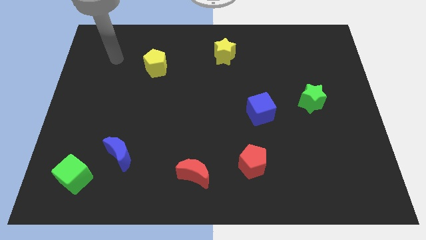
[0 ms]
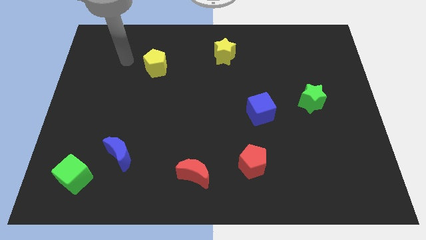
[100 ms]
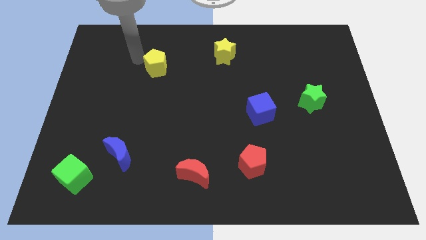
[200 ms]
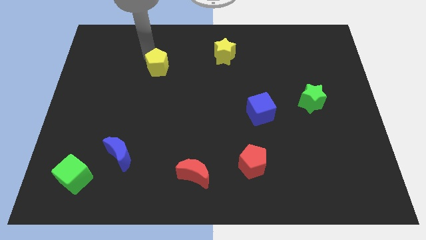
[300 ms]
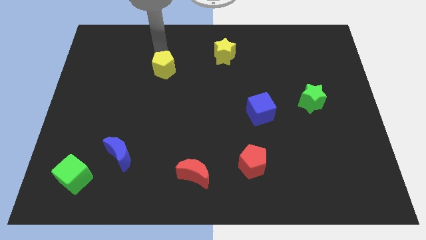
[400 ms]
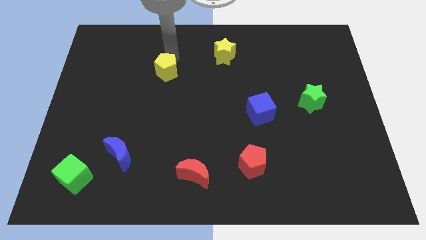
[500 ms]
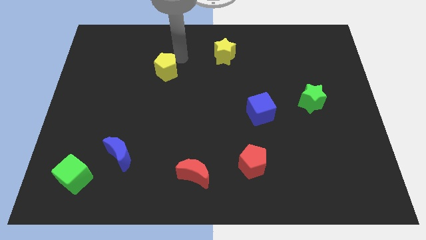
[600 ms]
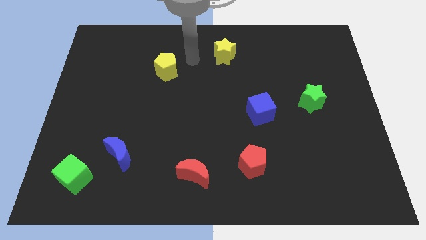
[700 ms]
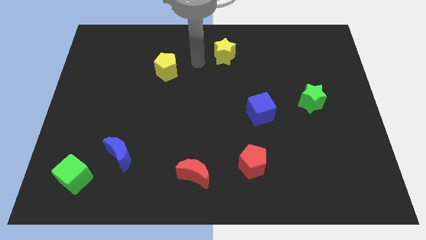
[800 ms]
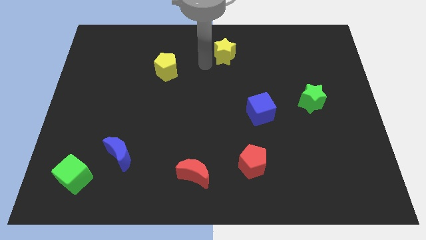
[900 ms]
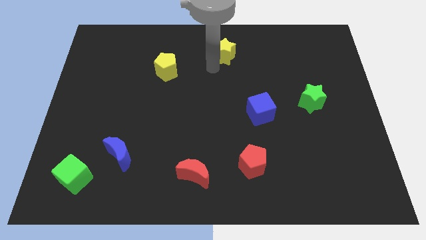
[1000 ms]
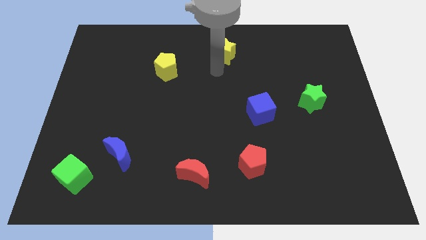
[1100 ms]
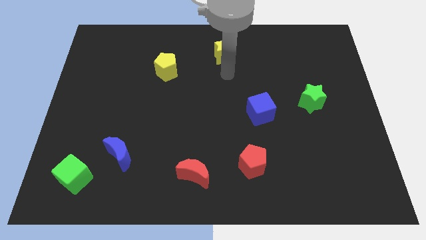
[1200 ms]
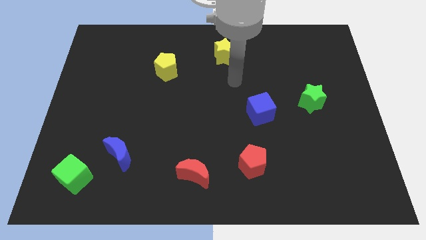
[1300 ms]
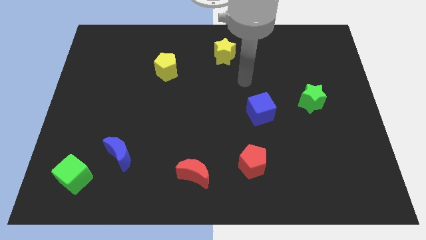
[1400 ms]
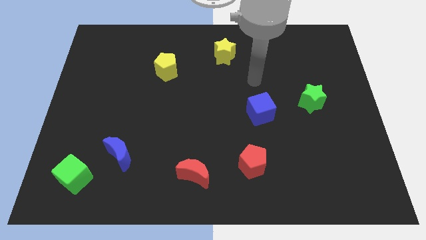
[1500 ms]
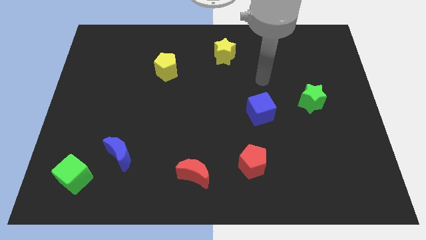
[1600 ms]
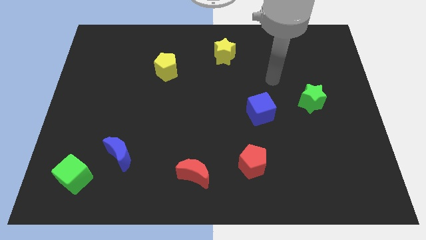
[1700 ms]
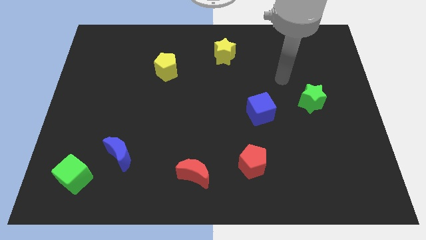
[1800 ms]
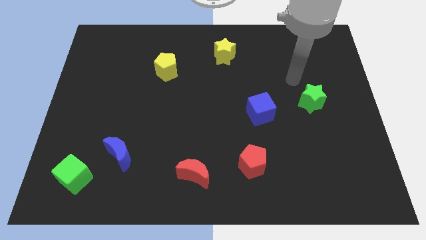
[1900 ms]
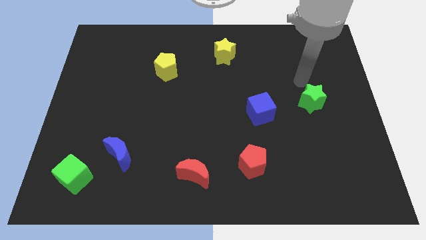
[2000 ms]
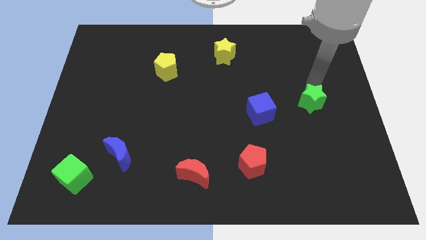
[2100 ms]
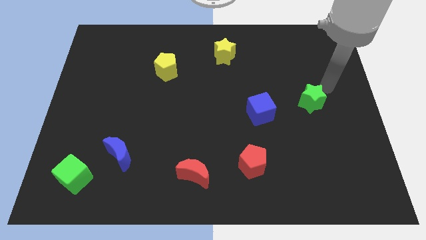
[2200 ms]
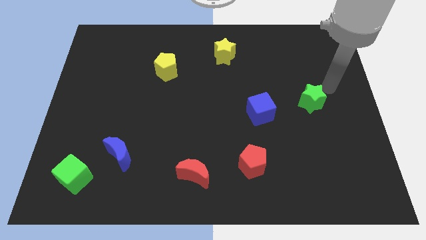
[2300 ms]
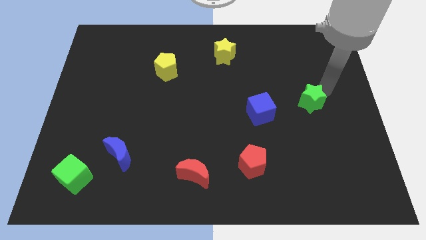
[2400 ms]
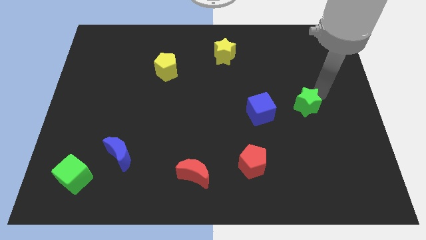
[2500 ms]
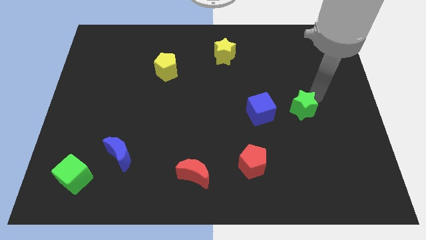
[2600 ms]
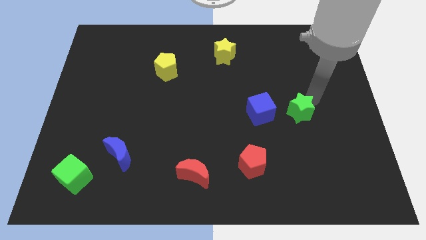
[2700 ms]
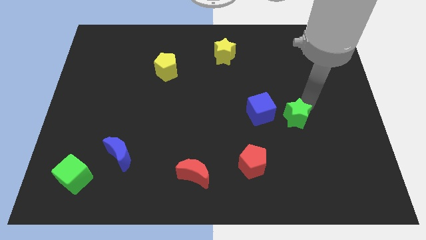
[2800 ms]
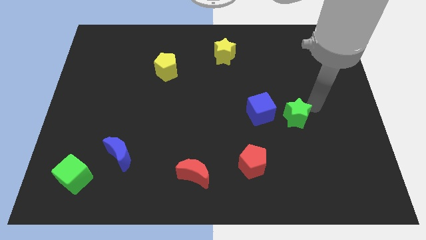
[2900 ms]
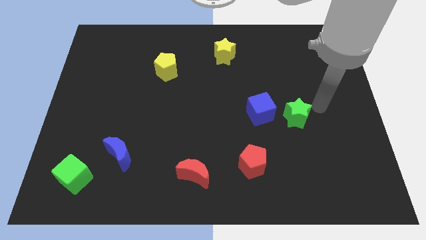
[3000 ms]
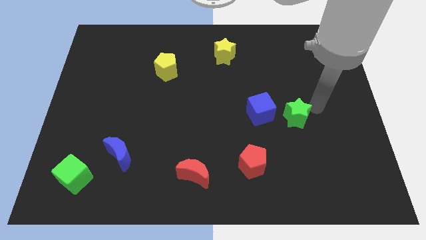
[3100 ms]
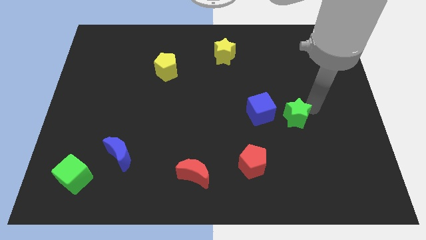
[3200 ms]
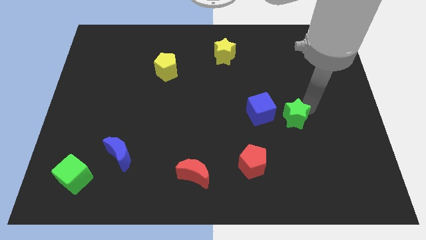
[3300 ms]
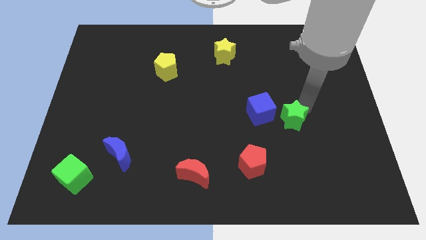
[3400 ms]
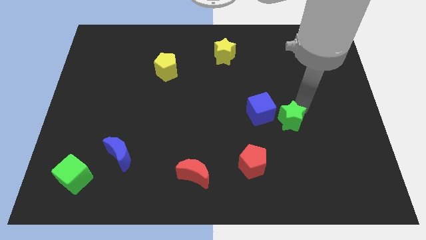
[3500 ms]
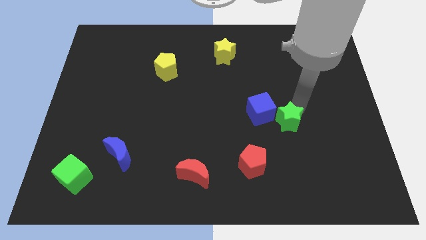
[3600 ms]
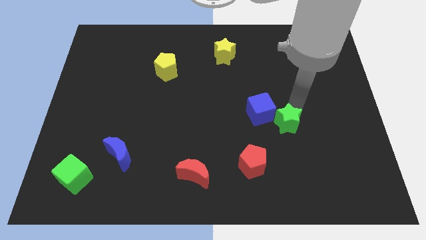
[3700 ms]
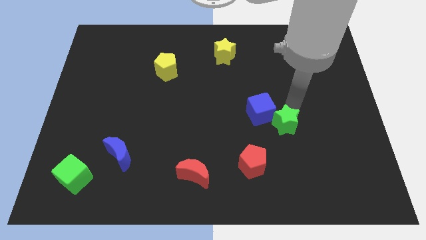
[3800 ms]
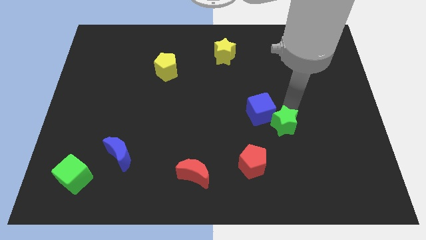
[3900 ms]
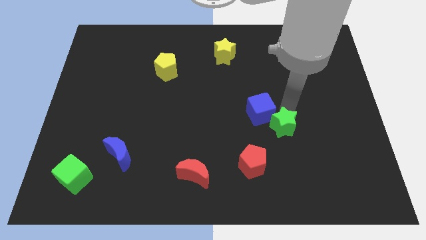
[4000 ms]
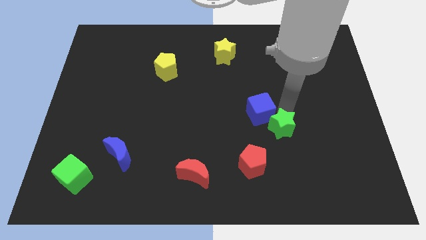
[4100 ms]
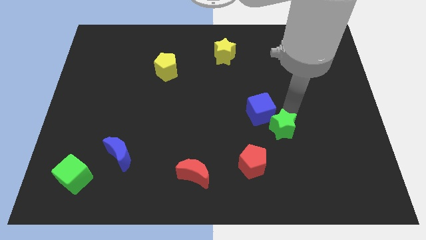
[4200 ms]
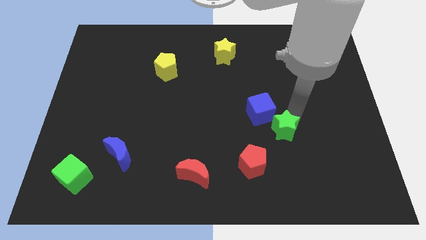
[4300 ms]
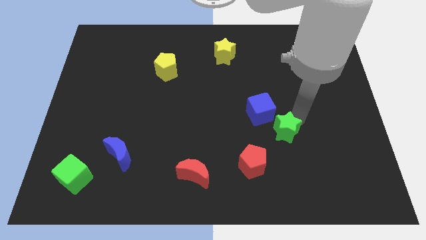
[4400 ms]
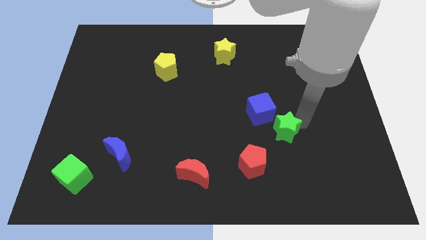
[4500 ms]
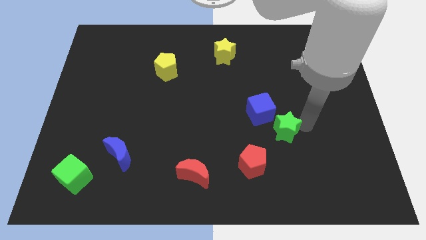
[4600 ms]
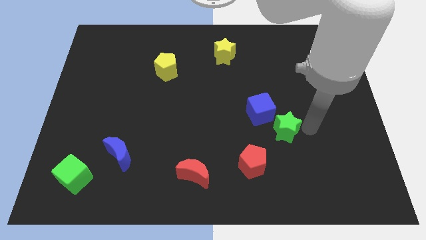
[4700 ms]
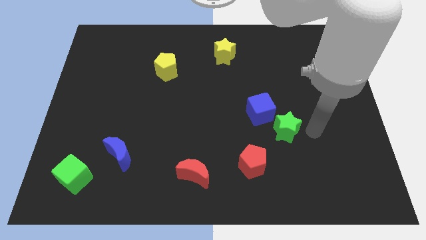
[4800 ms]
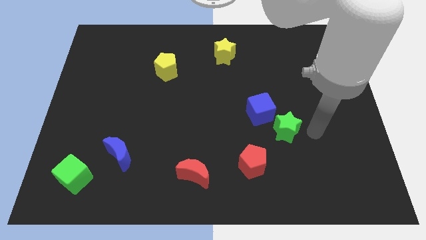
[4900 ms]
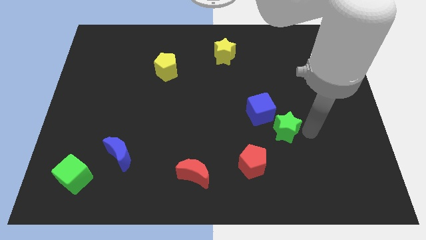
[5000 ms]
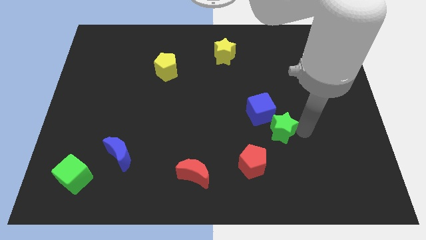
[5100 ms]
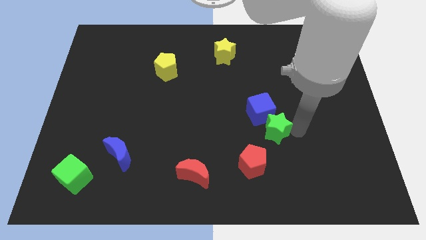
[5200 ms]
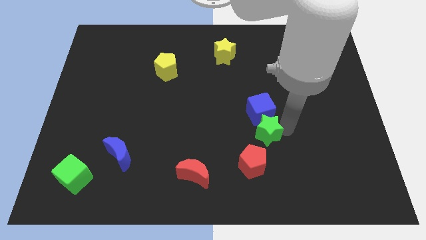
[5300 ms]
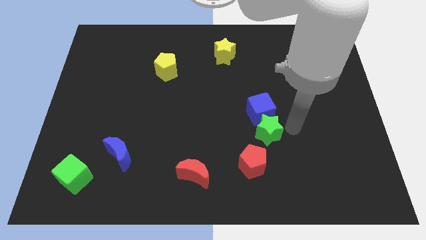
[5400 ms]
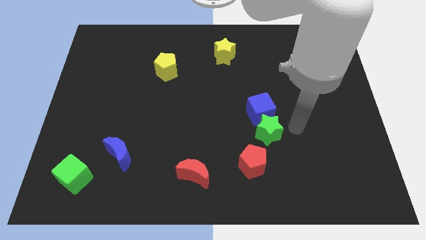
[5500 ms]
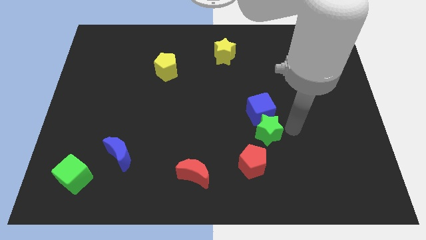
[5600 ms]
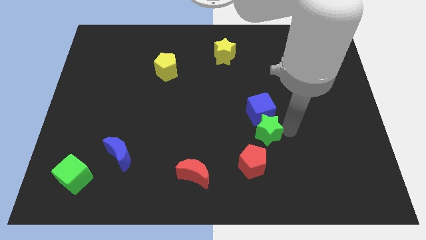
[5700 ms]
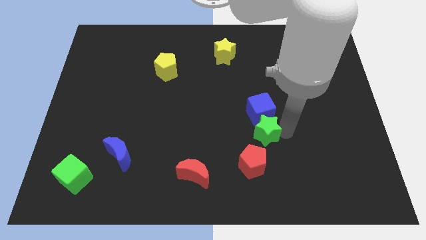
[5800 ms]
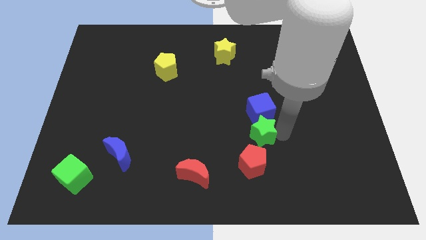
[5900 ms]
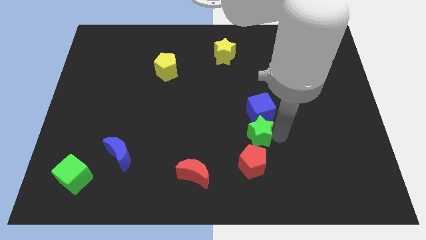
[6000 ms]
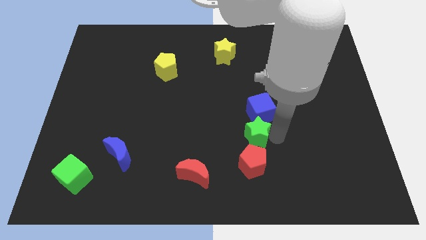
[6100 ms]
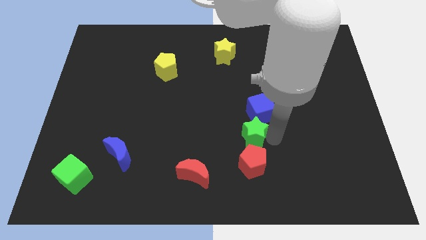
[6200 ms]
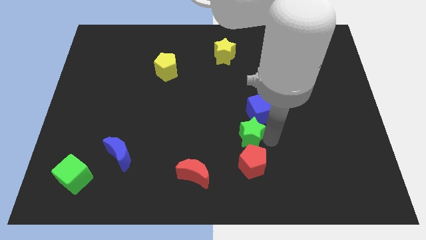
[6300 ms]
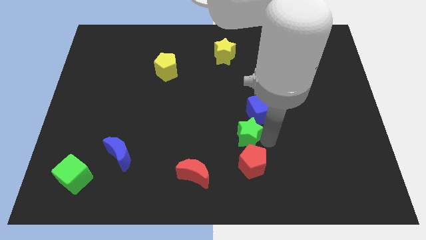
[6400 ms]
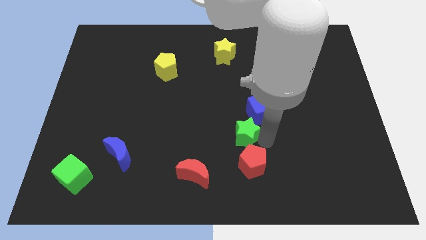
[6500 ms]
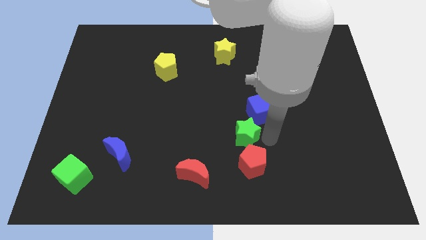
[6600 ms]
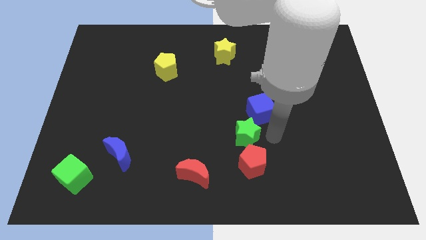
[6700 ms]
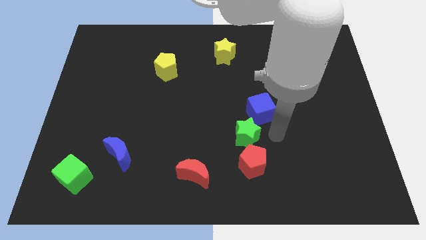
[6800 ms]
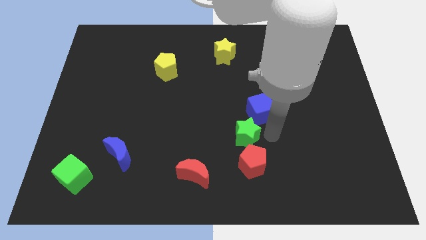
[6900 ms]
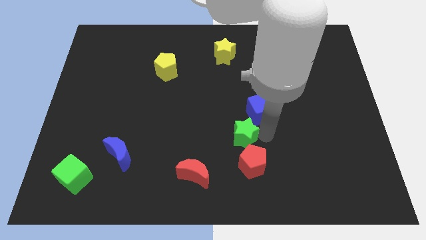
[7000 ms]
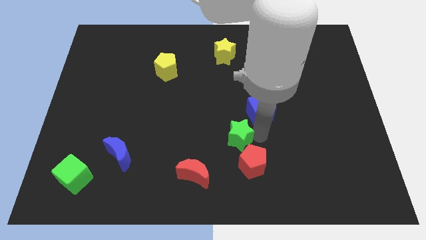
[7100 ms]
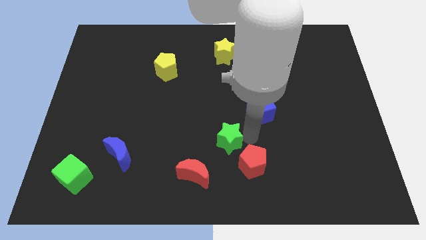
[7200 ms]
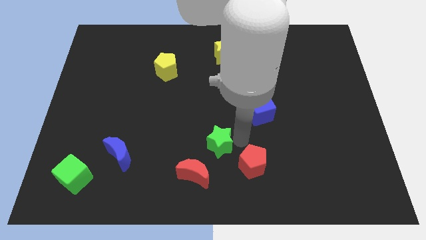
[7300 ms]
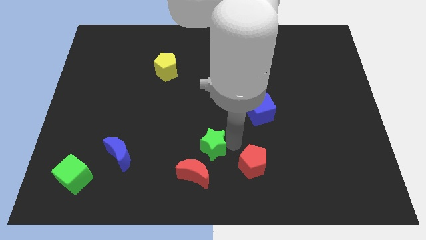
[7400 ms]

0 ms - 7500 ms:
put the green star above the red moon
